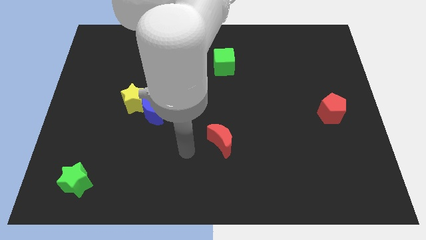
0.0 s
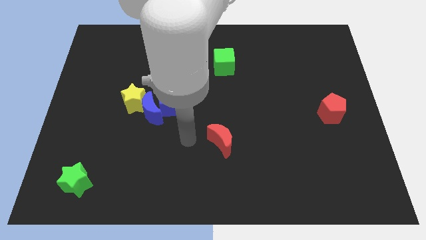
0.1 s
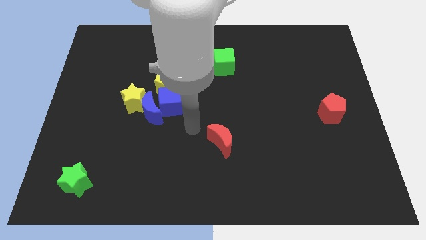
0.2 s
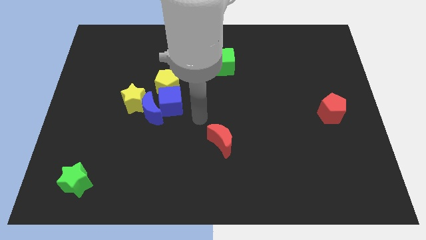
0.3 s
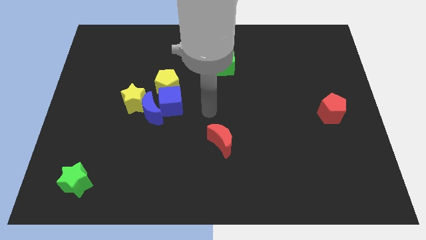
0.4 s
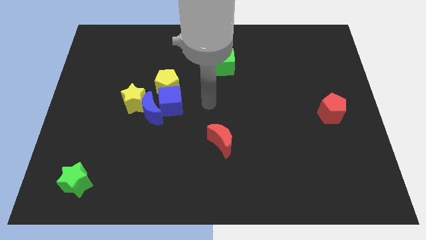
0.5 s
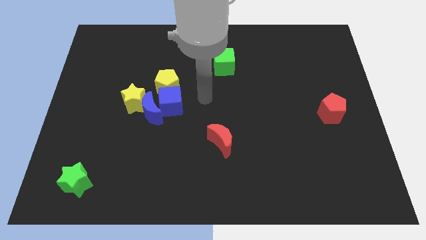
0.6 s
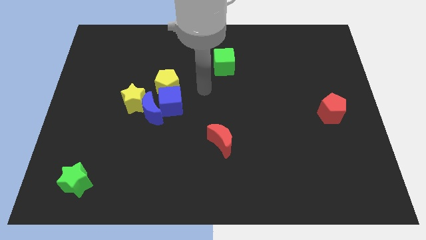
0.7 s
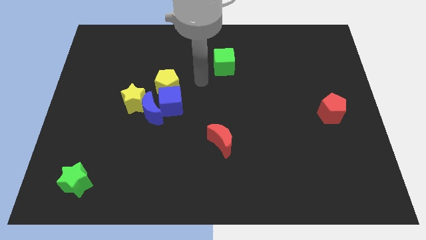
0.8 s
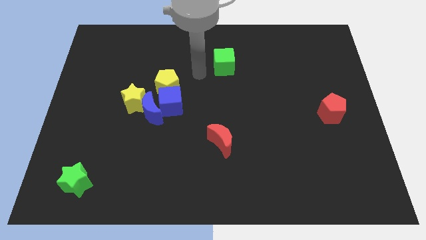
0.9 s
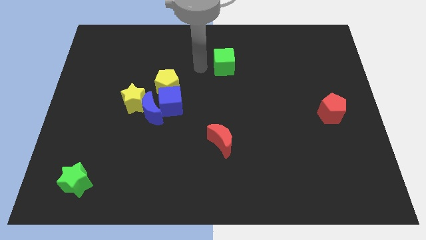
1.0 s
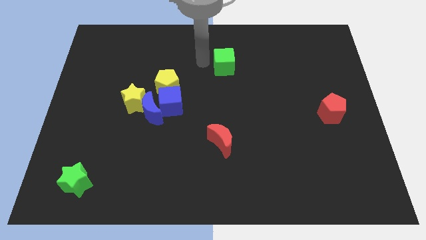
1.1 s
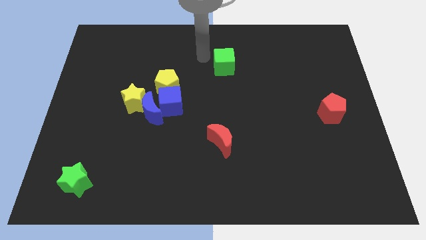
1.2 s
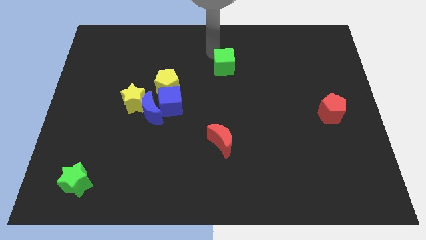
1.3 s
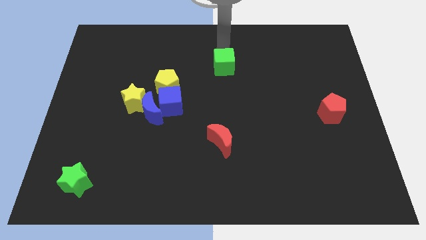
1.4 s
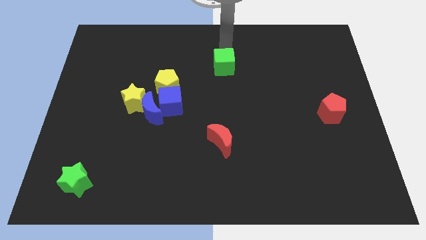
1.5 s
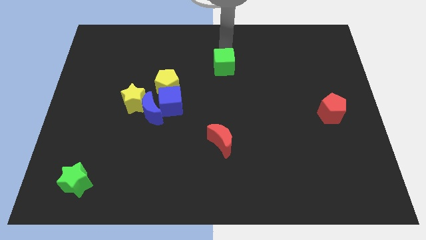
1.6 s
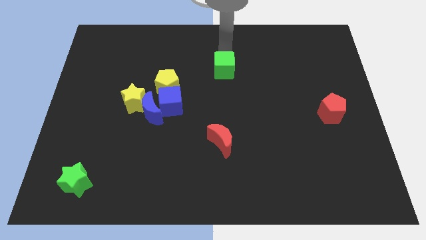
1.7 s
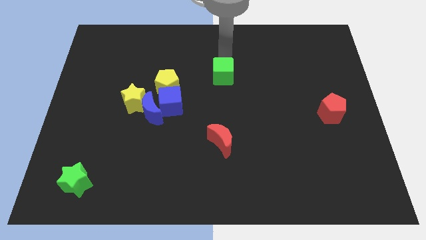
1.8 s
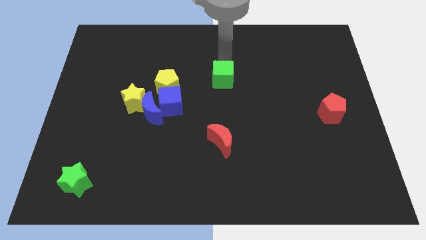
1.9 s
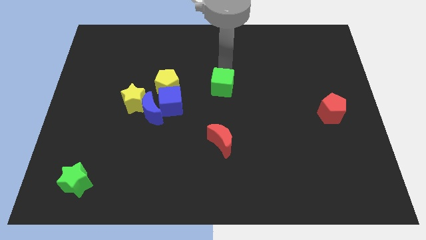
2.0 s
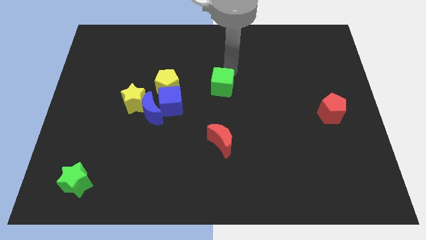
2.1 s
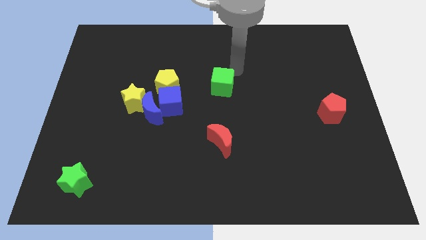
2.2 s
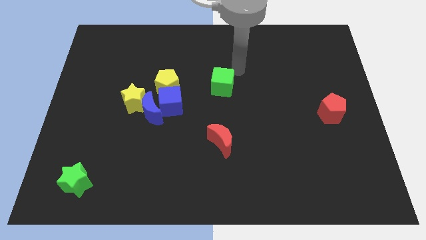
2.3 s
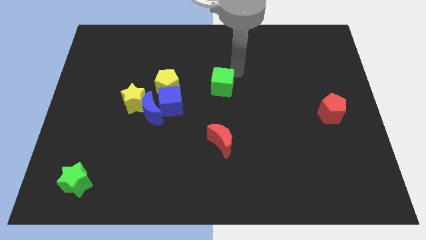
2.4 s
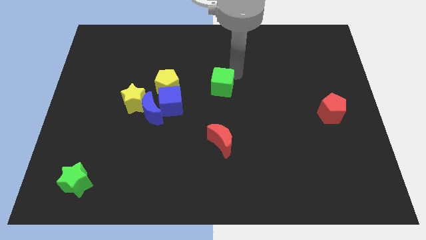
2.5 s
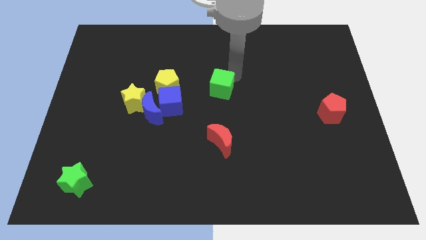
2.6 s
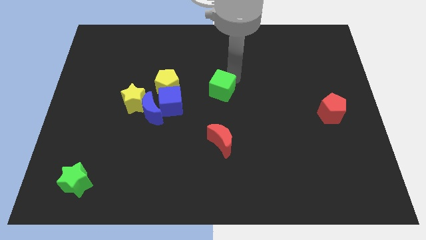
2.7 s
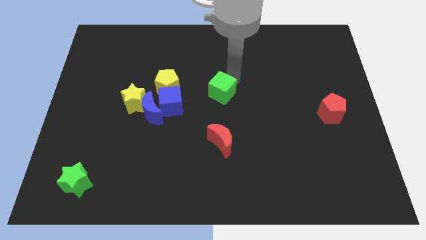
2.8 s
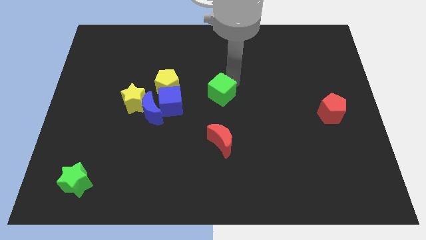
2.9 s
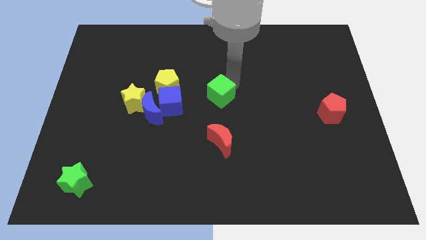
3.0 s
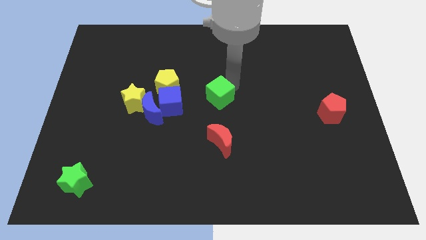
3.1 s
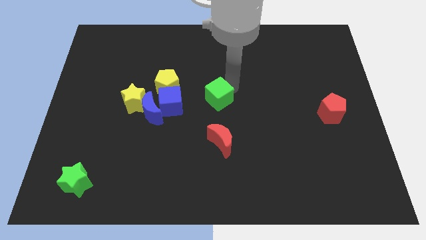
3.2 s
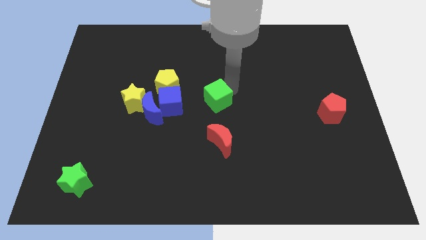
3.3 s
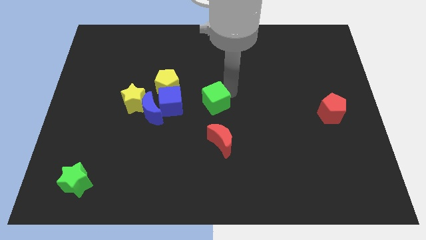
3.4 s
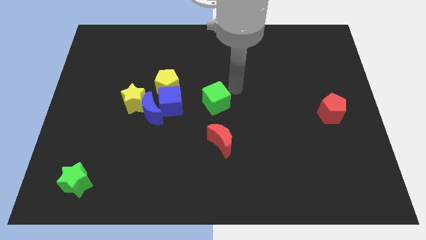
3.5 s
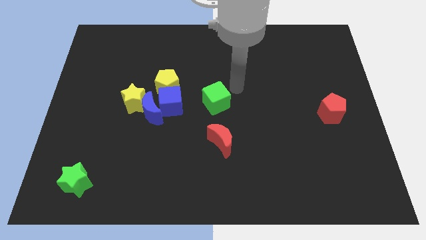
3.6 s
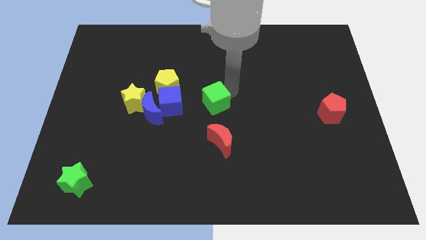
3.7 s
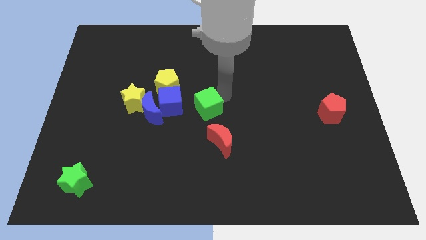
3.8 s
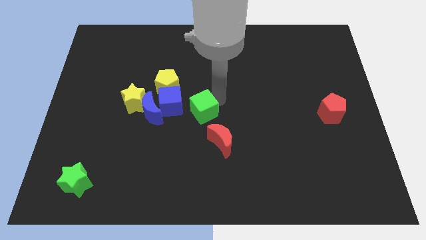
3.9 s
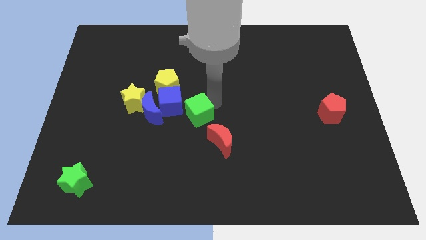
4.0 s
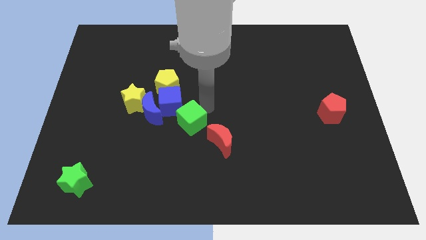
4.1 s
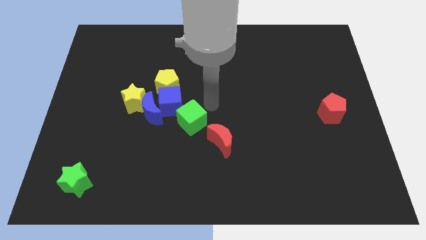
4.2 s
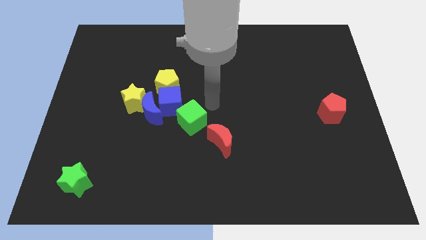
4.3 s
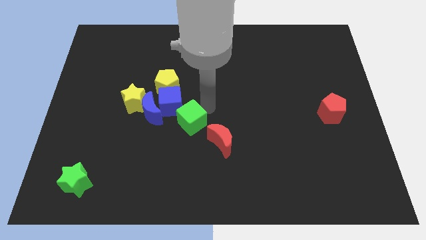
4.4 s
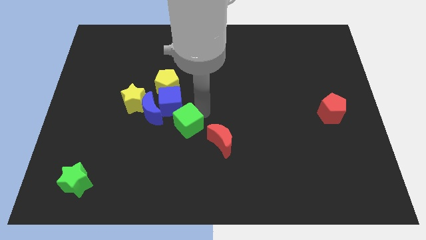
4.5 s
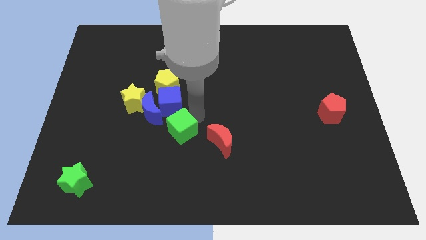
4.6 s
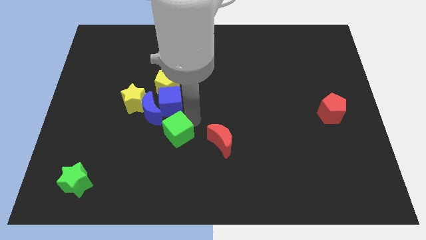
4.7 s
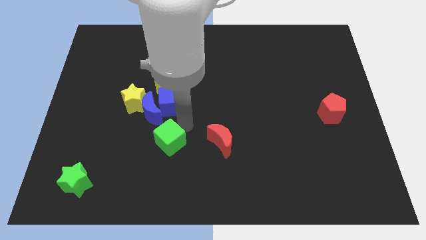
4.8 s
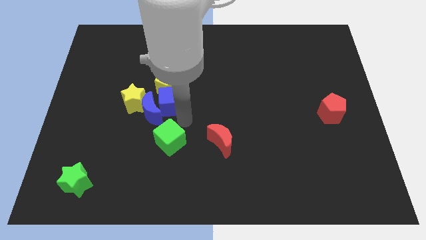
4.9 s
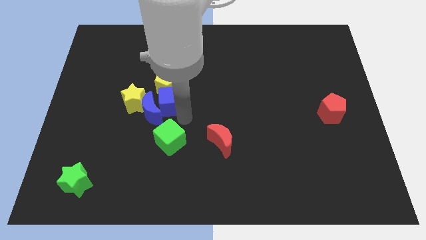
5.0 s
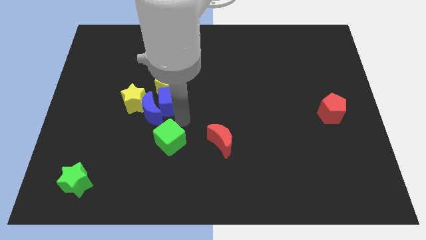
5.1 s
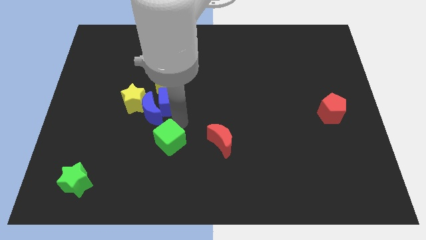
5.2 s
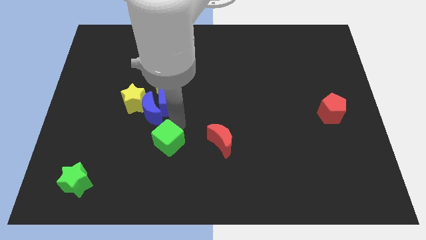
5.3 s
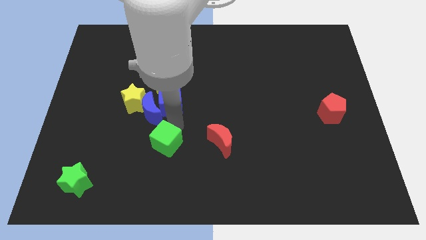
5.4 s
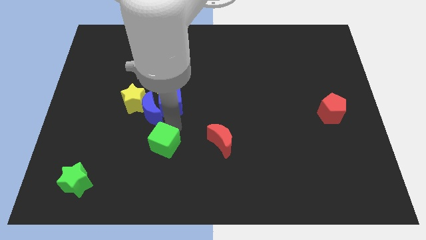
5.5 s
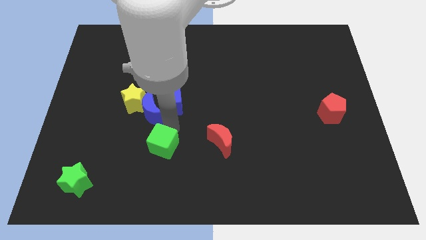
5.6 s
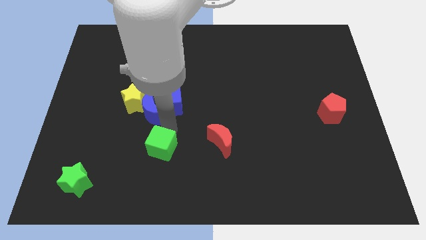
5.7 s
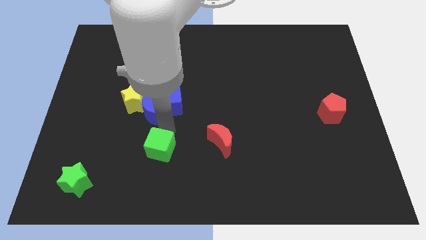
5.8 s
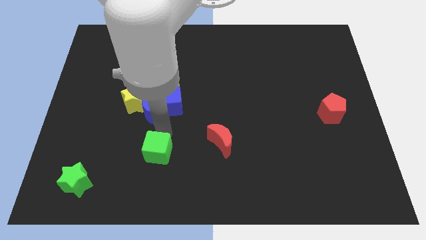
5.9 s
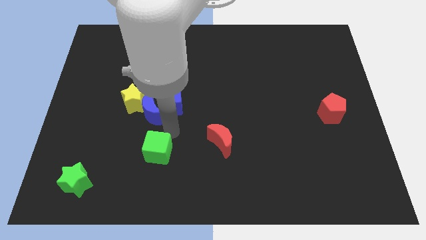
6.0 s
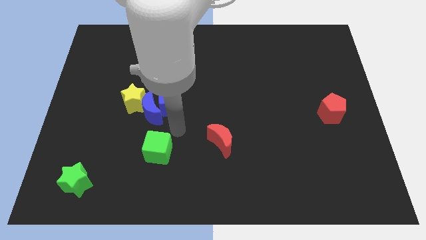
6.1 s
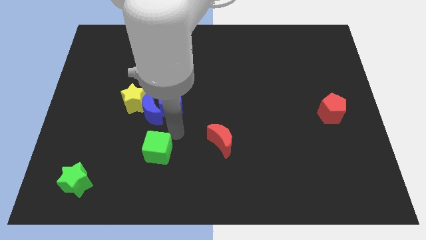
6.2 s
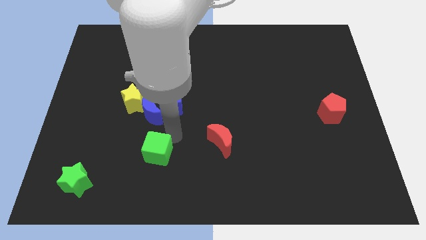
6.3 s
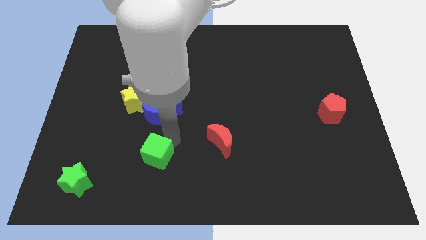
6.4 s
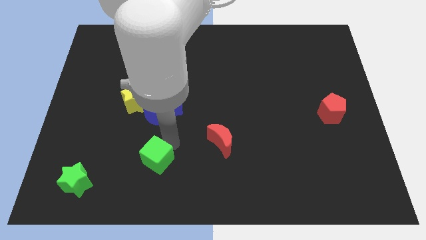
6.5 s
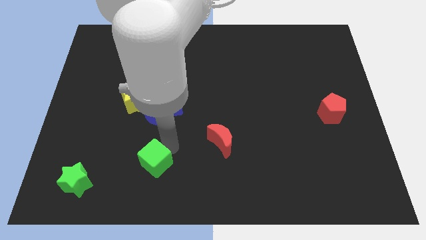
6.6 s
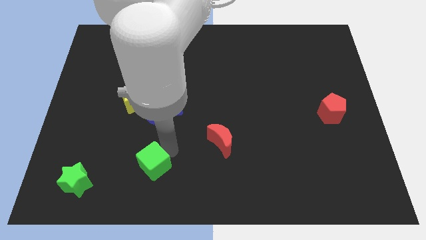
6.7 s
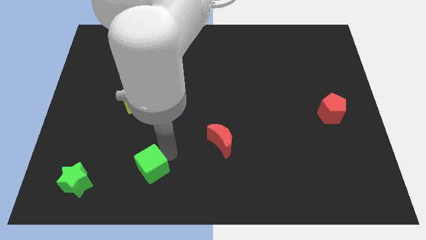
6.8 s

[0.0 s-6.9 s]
push the green cube to the right side of the green star

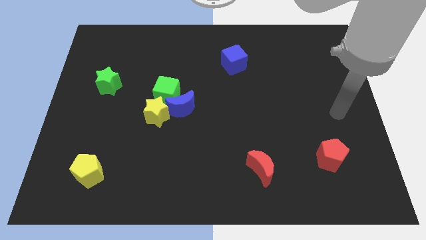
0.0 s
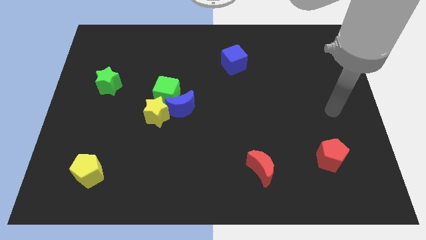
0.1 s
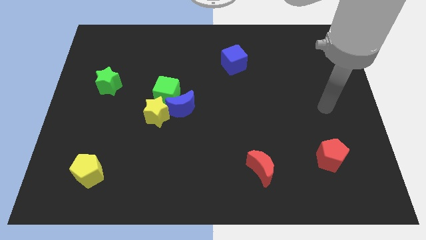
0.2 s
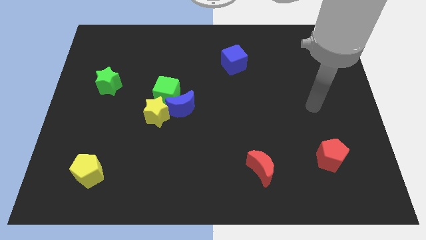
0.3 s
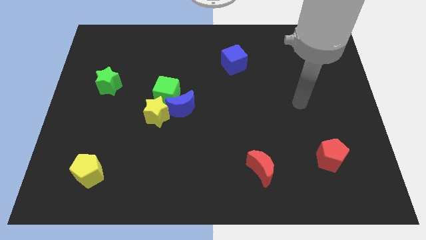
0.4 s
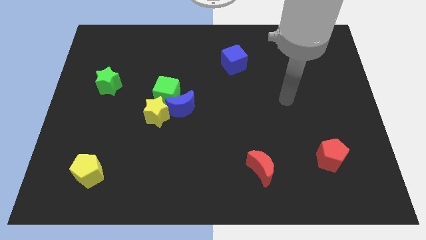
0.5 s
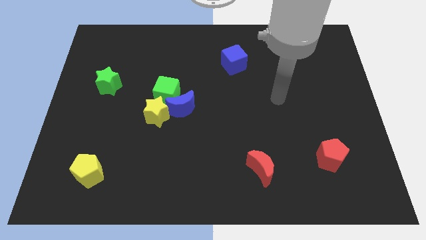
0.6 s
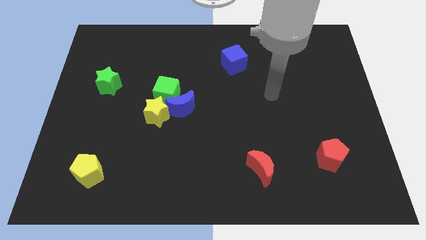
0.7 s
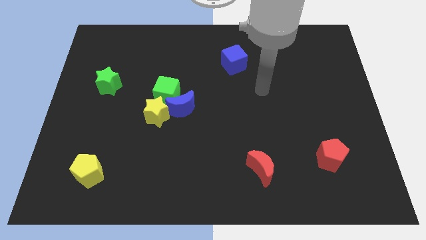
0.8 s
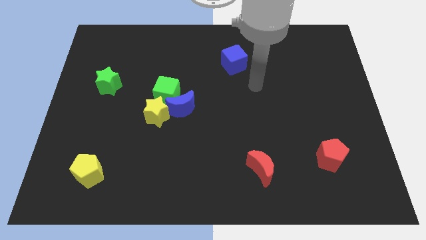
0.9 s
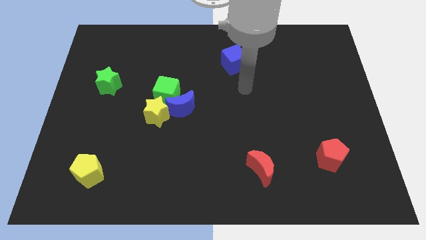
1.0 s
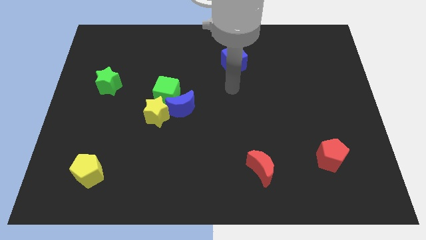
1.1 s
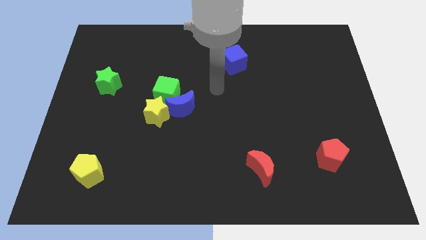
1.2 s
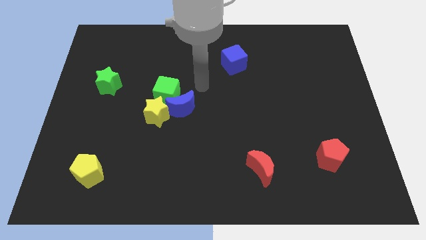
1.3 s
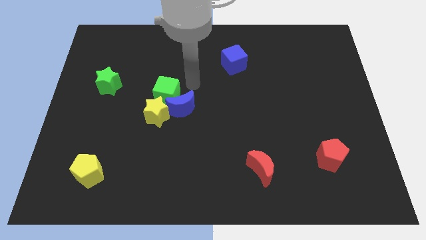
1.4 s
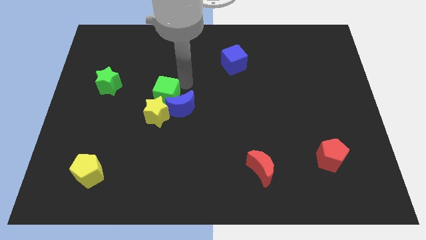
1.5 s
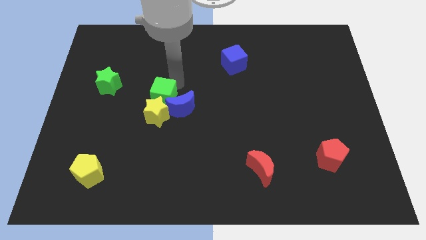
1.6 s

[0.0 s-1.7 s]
slide the yellow star to the bottom right side of the green cube
